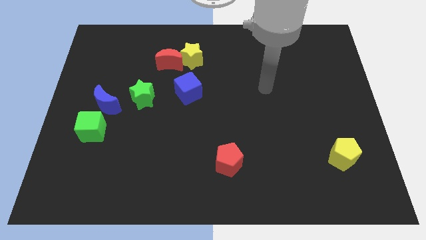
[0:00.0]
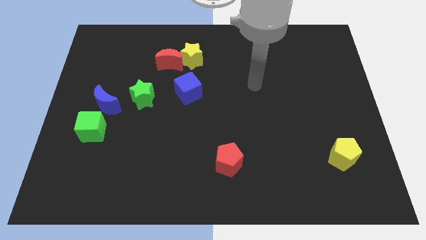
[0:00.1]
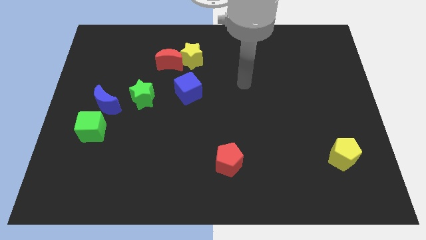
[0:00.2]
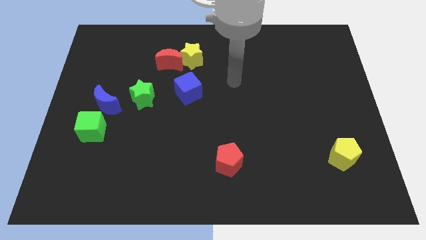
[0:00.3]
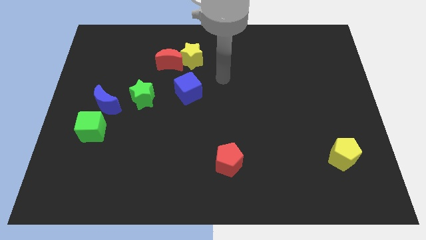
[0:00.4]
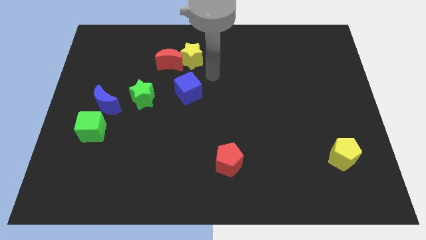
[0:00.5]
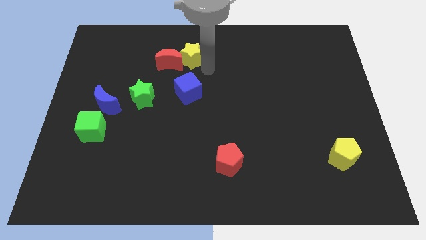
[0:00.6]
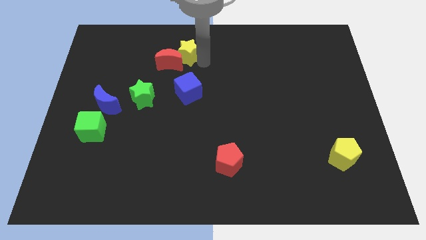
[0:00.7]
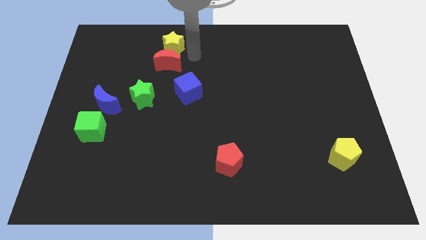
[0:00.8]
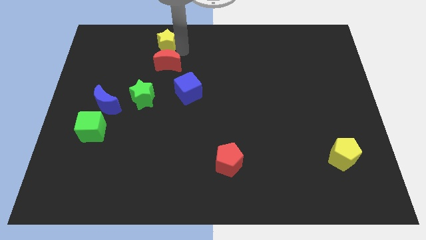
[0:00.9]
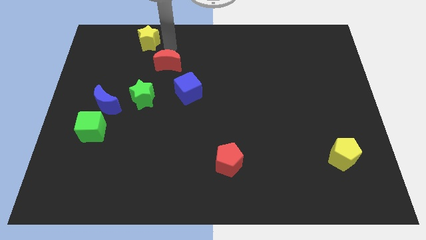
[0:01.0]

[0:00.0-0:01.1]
separate the red moon from the yellow star

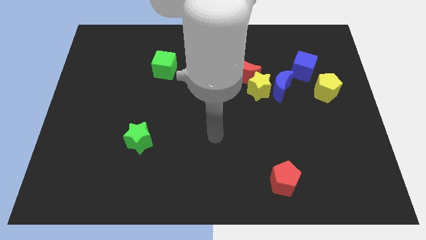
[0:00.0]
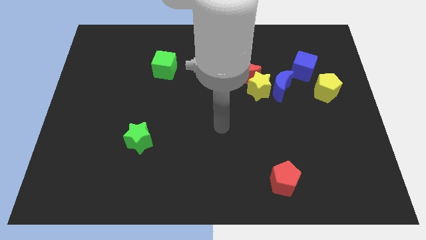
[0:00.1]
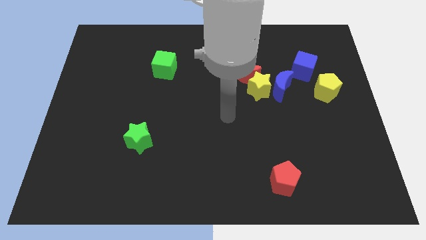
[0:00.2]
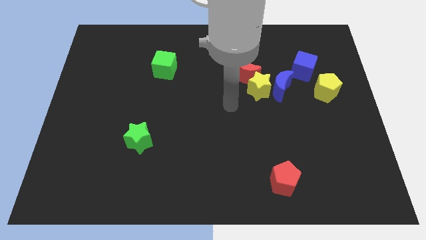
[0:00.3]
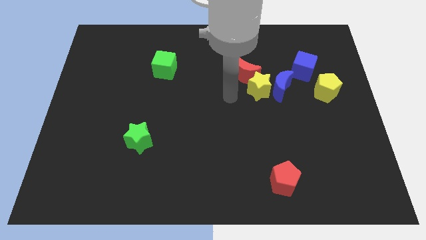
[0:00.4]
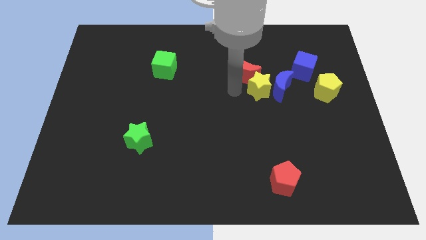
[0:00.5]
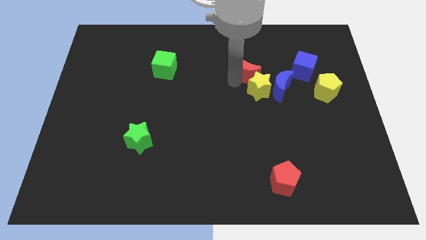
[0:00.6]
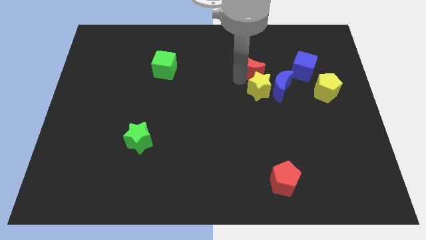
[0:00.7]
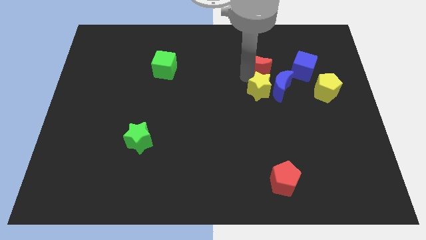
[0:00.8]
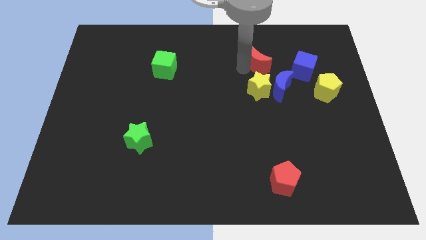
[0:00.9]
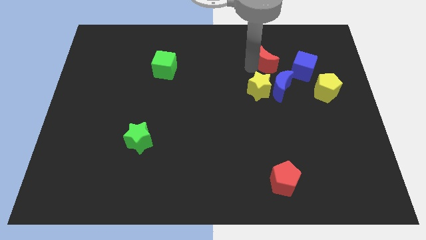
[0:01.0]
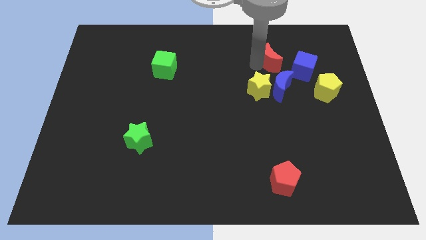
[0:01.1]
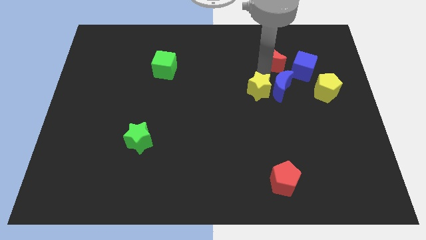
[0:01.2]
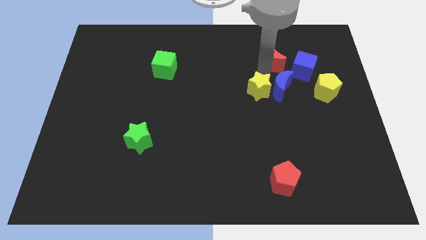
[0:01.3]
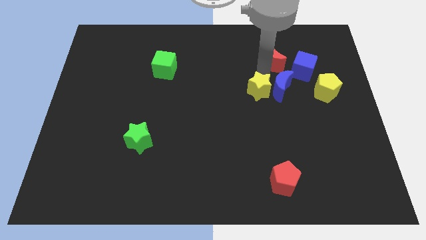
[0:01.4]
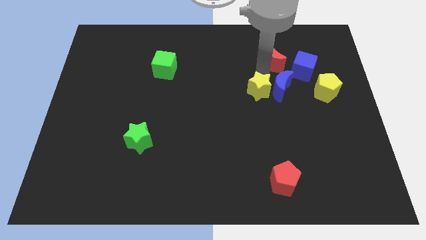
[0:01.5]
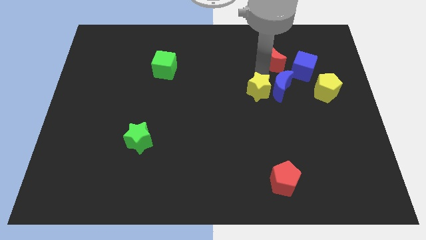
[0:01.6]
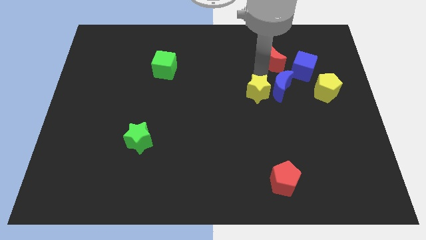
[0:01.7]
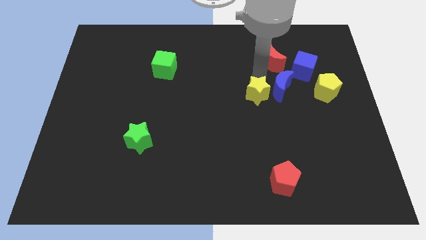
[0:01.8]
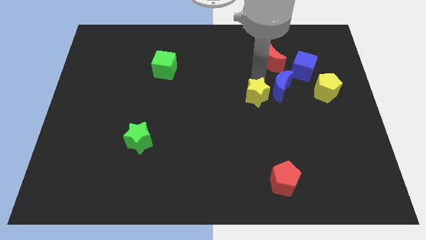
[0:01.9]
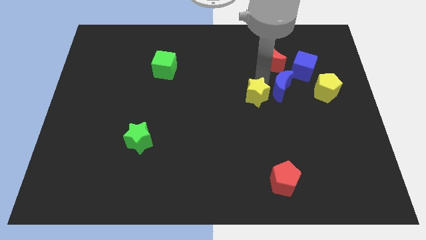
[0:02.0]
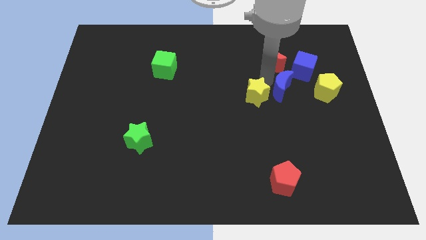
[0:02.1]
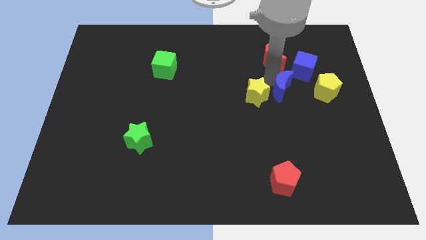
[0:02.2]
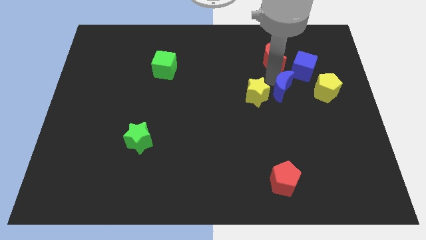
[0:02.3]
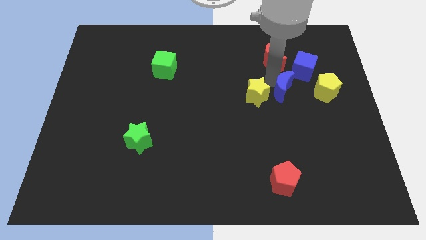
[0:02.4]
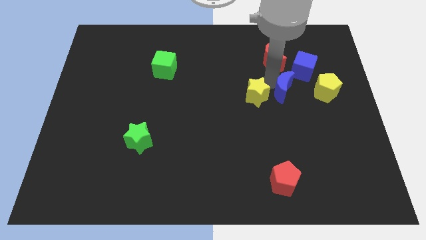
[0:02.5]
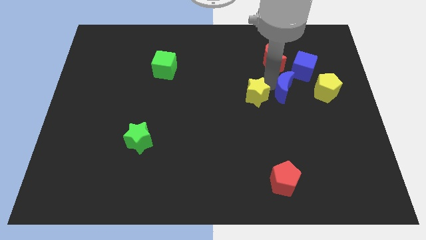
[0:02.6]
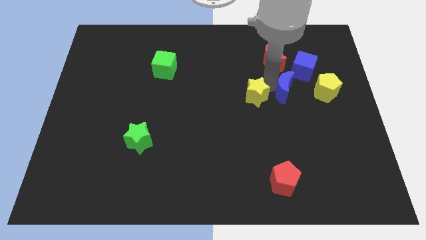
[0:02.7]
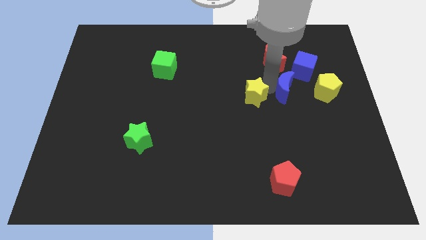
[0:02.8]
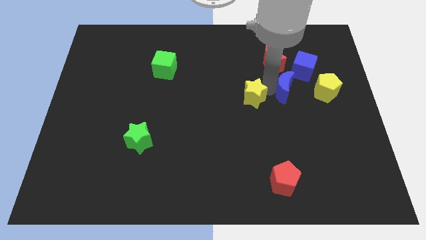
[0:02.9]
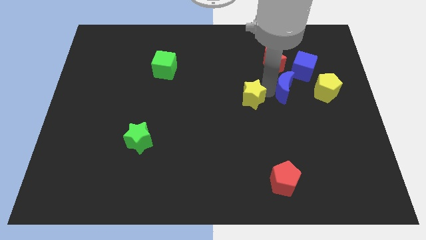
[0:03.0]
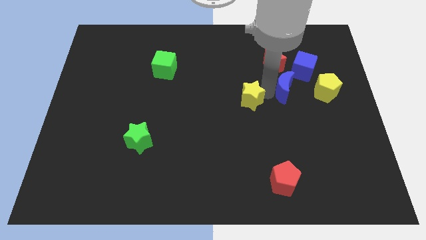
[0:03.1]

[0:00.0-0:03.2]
move the yellow star away from the blue moon and red moon

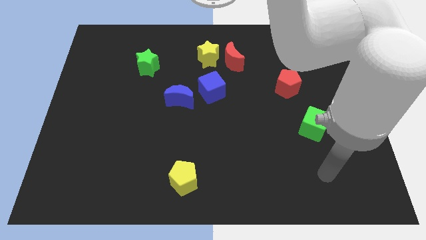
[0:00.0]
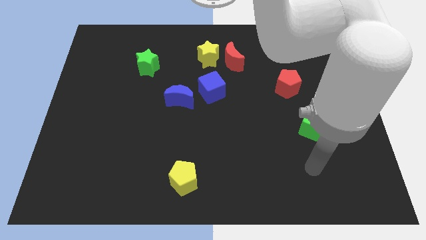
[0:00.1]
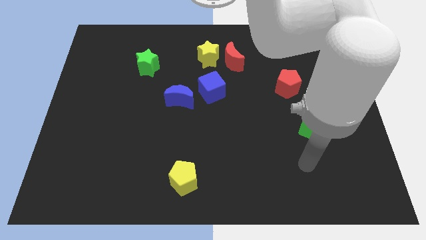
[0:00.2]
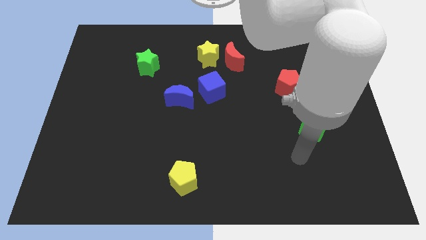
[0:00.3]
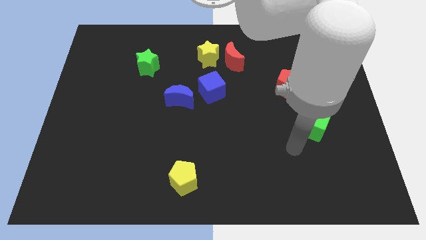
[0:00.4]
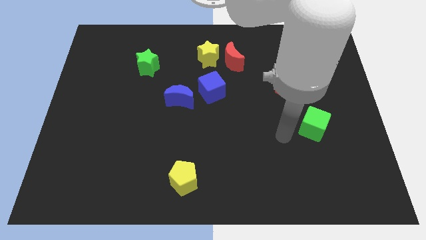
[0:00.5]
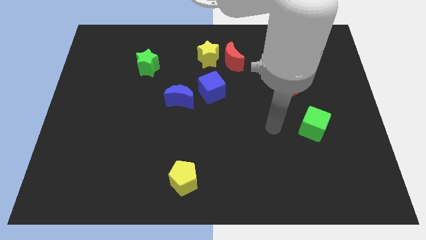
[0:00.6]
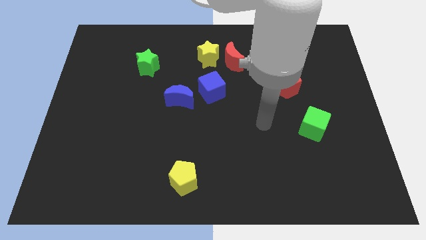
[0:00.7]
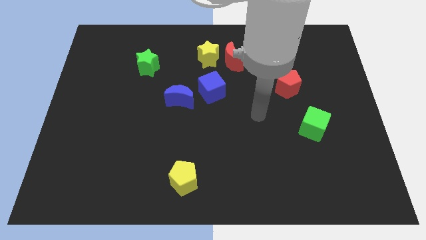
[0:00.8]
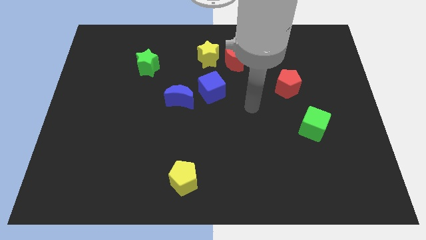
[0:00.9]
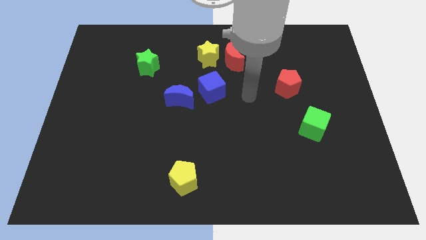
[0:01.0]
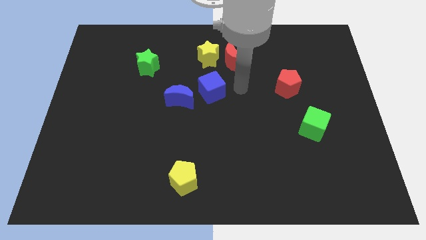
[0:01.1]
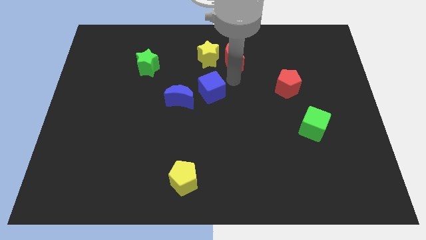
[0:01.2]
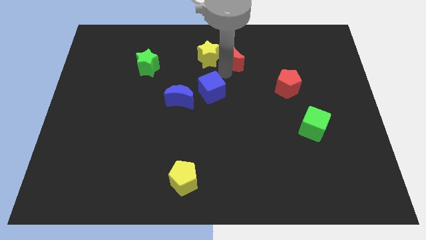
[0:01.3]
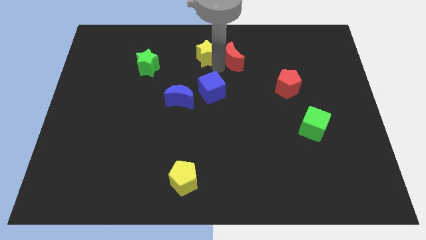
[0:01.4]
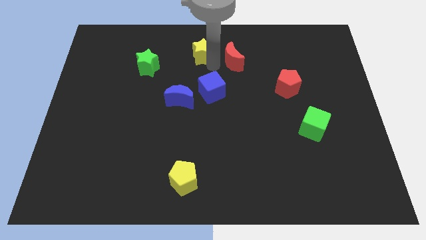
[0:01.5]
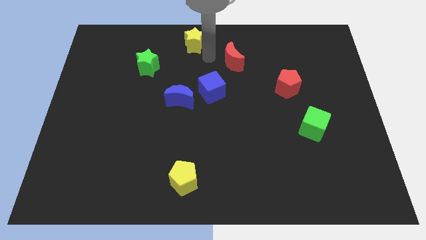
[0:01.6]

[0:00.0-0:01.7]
move the red moon away from the yellow star

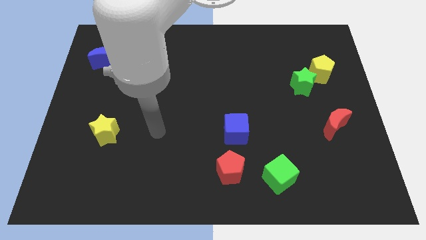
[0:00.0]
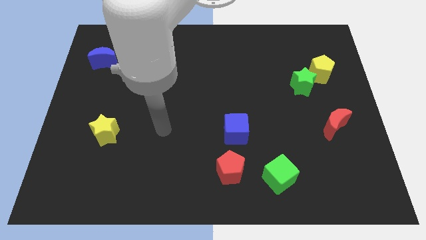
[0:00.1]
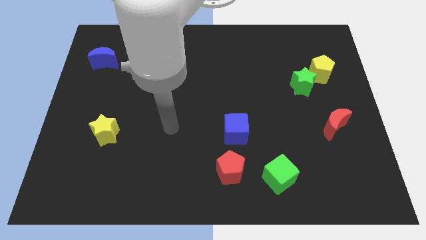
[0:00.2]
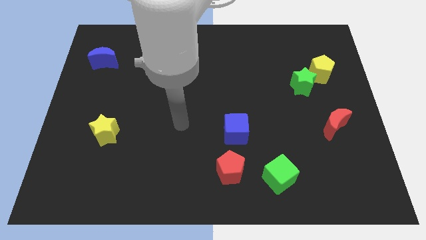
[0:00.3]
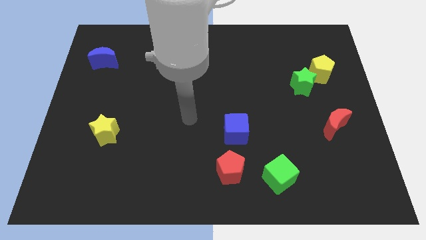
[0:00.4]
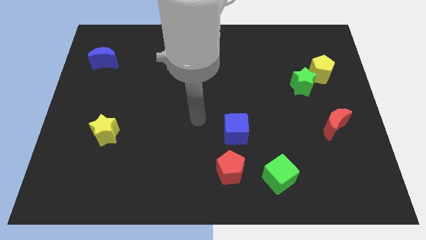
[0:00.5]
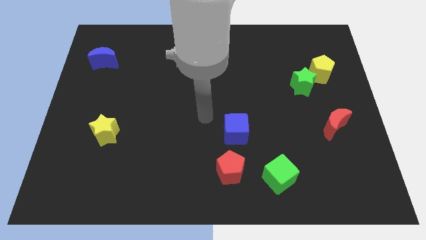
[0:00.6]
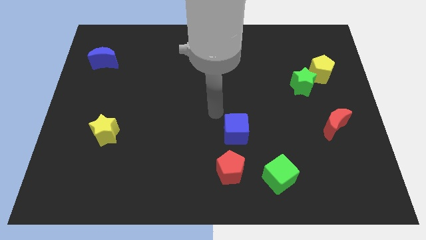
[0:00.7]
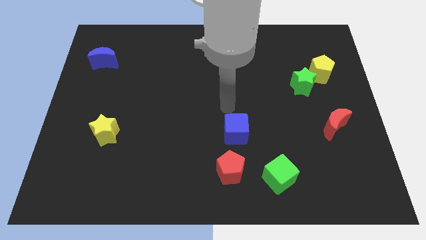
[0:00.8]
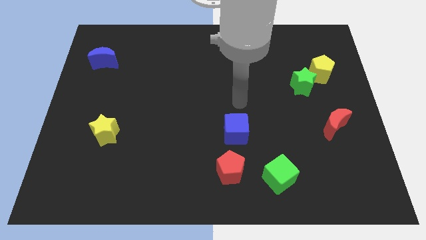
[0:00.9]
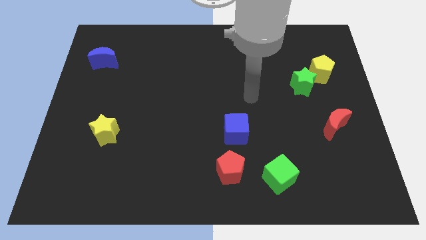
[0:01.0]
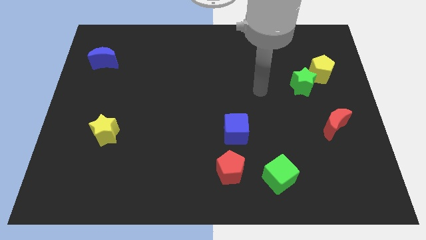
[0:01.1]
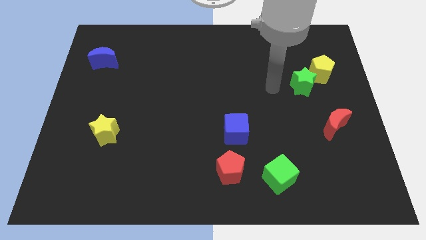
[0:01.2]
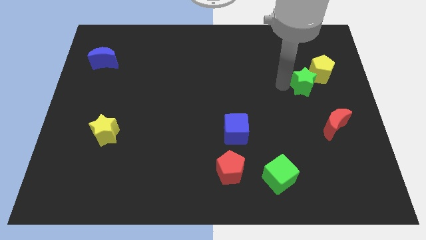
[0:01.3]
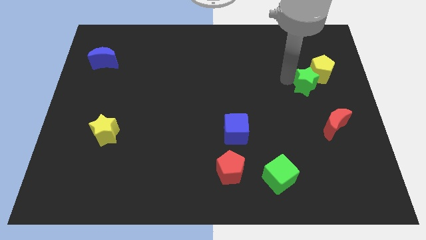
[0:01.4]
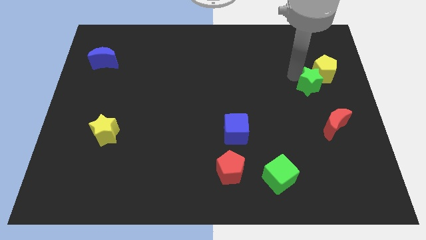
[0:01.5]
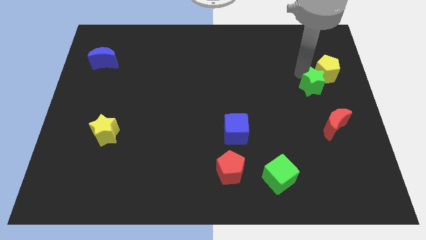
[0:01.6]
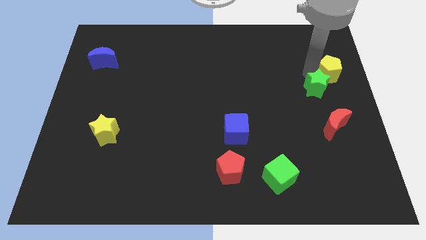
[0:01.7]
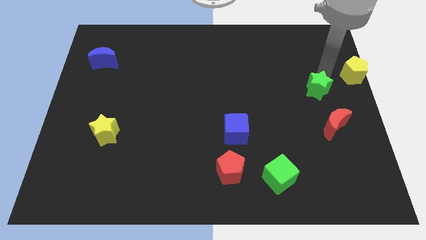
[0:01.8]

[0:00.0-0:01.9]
separate the green star from the yellow pentagon

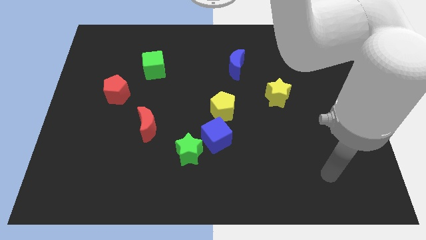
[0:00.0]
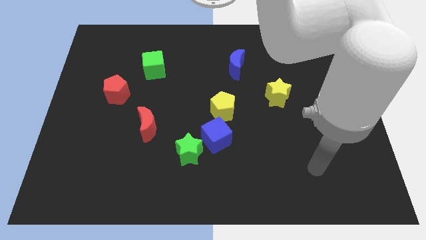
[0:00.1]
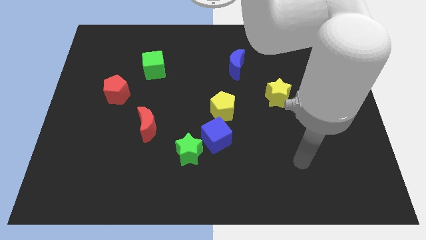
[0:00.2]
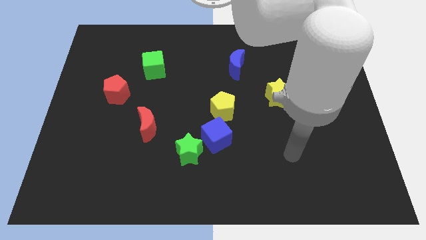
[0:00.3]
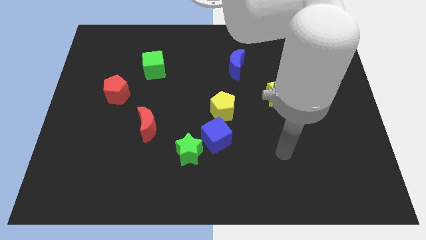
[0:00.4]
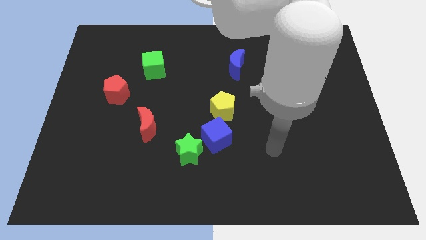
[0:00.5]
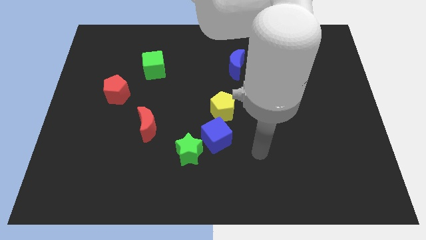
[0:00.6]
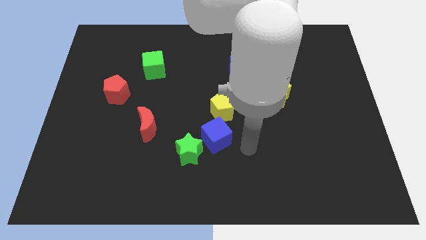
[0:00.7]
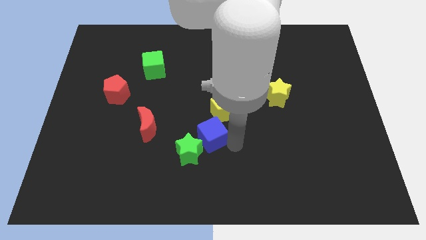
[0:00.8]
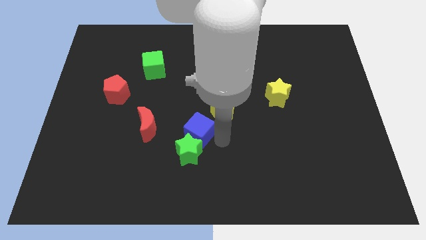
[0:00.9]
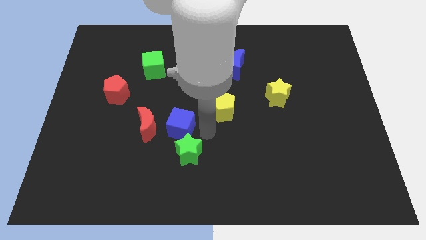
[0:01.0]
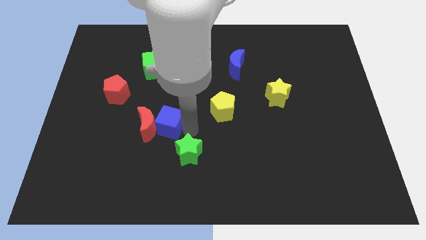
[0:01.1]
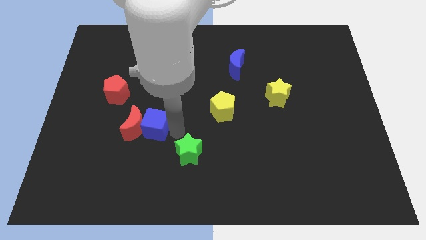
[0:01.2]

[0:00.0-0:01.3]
move the green star away from the blue cube

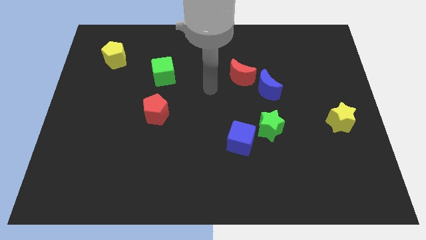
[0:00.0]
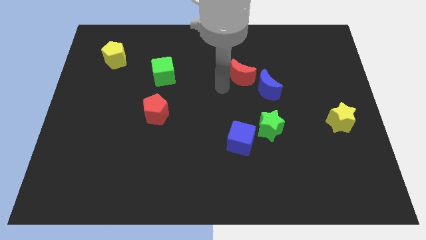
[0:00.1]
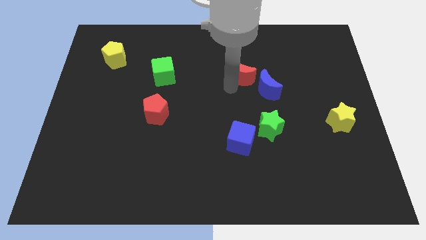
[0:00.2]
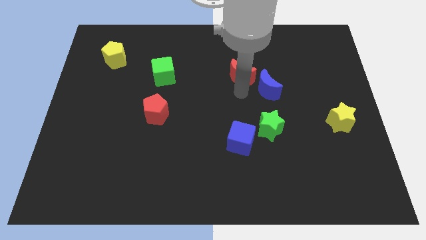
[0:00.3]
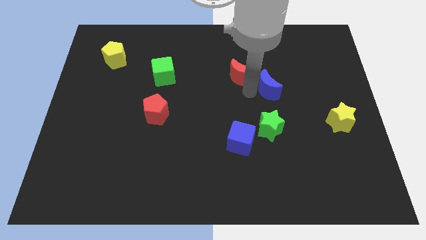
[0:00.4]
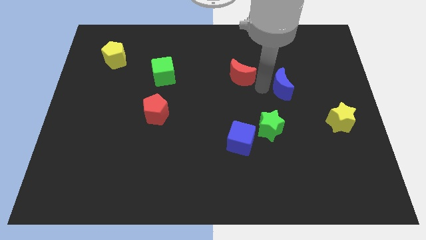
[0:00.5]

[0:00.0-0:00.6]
move the red moon away from the blue moon
